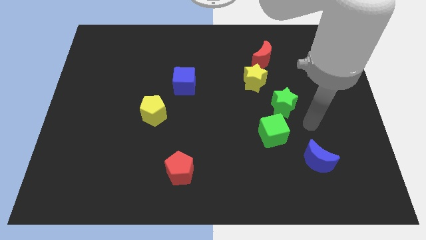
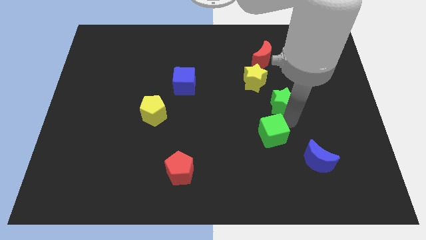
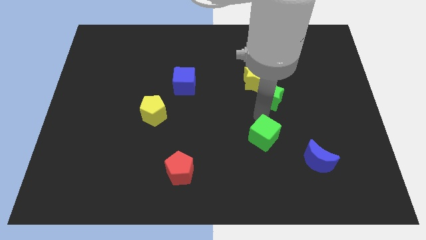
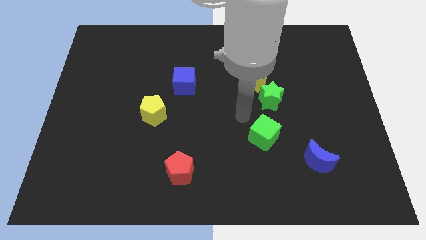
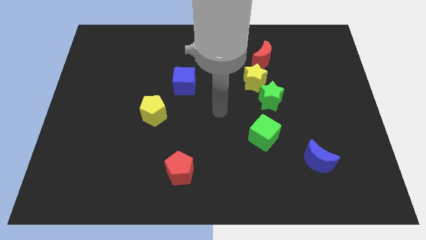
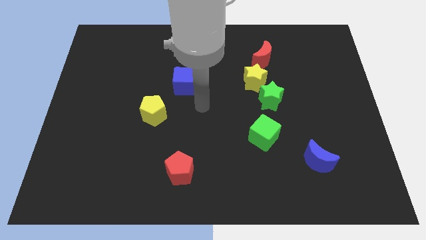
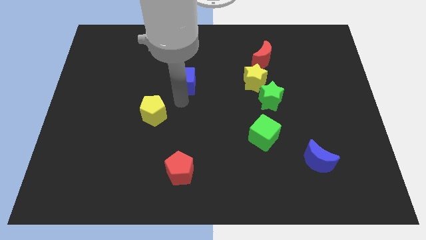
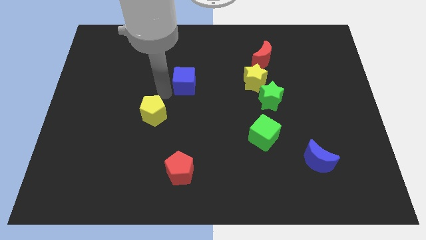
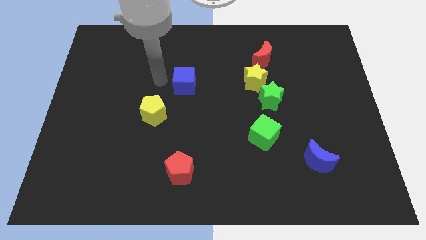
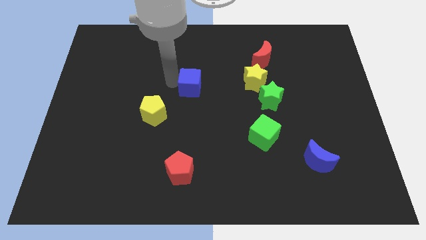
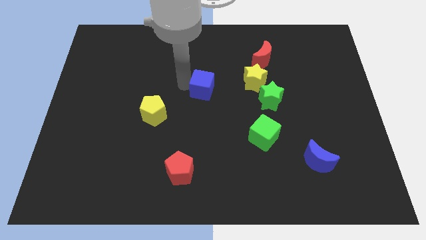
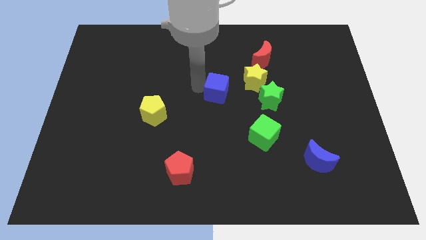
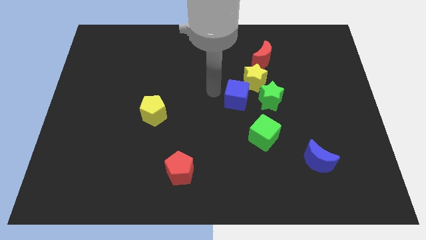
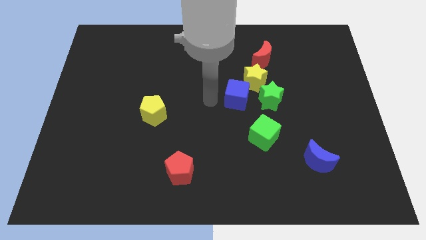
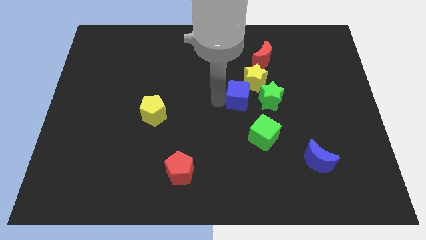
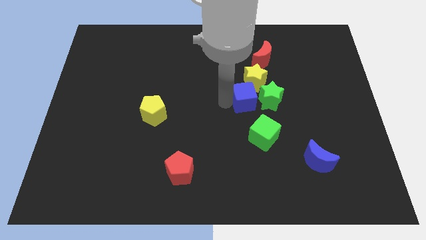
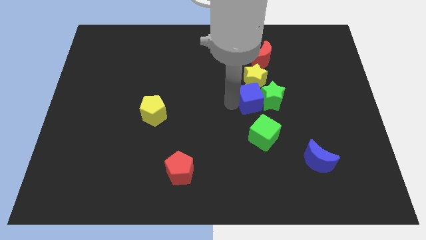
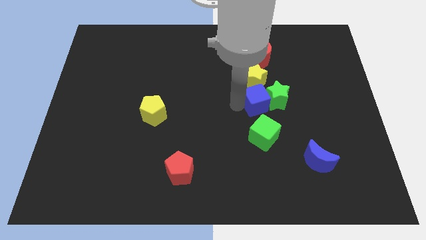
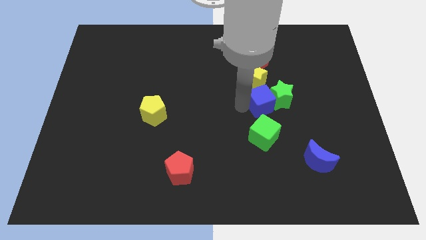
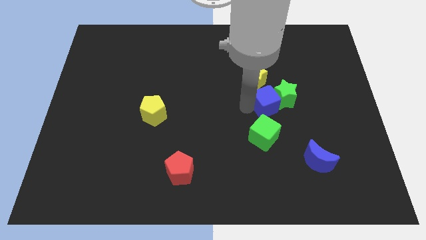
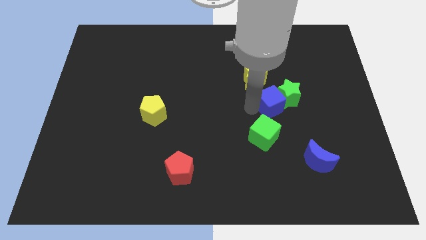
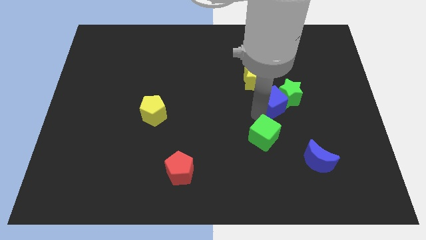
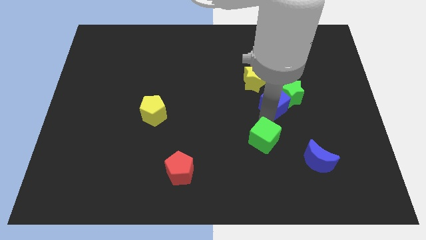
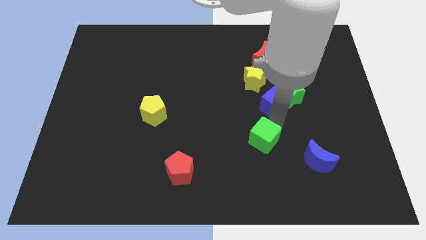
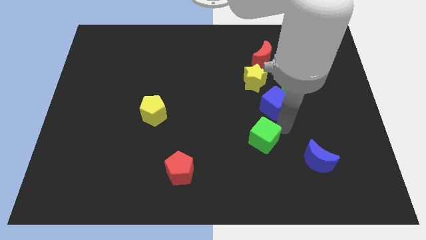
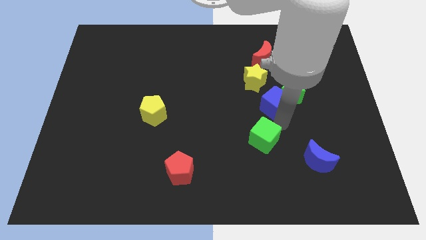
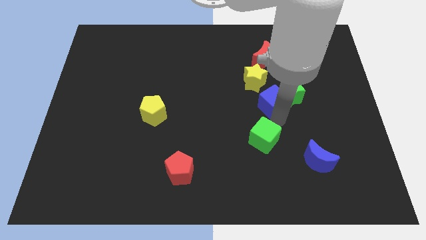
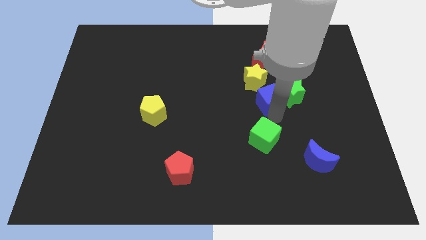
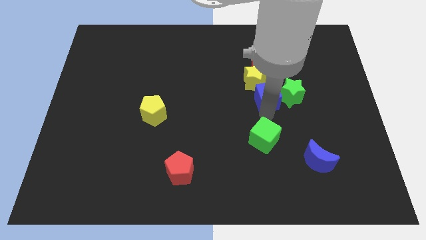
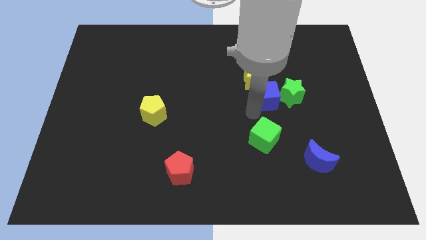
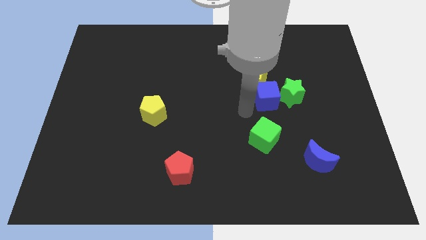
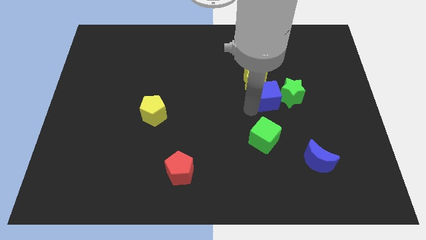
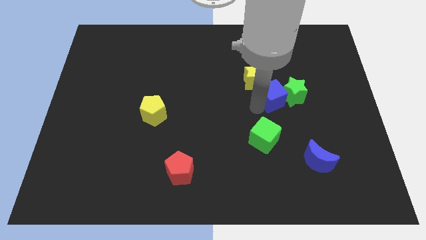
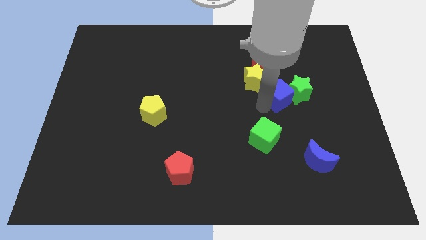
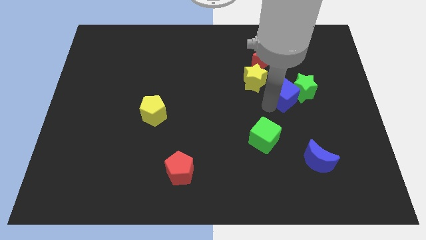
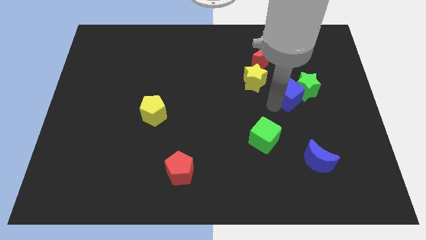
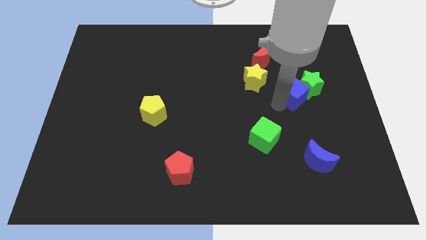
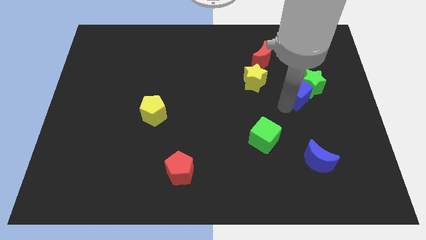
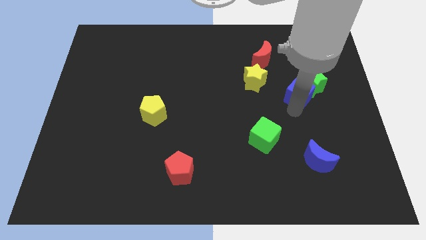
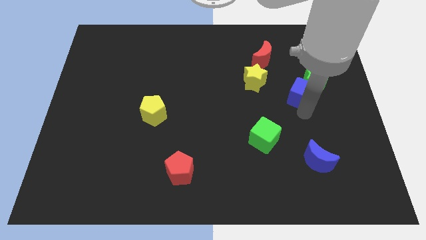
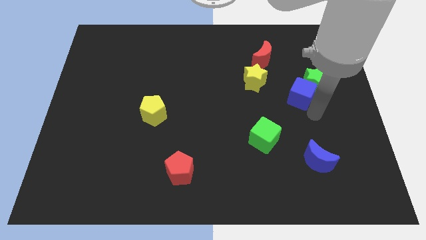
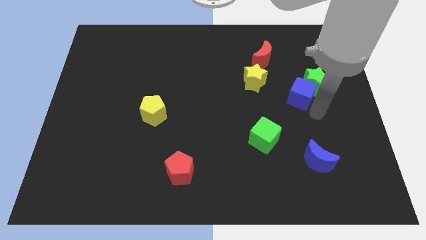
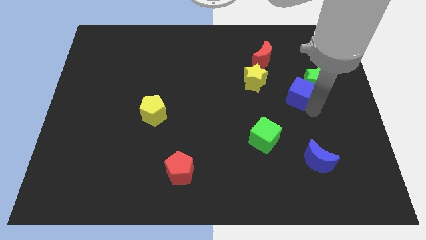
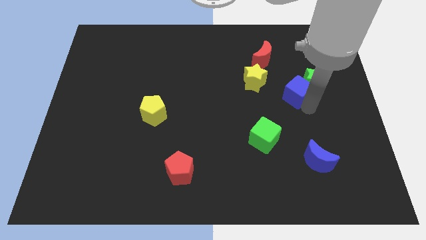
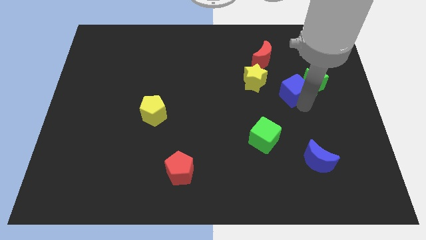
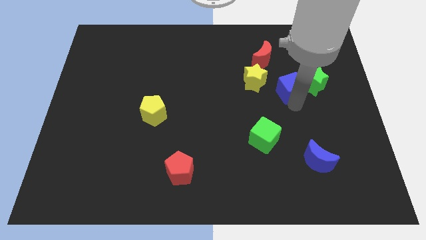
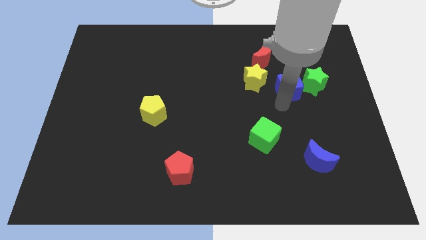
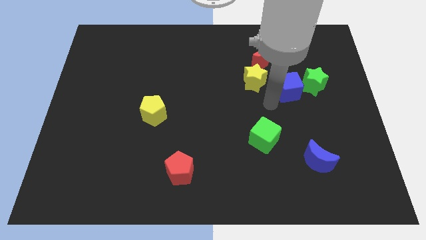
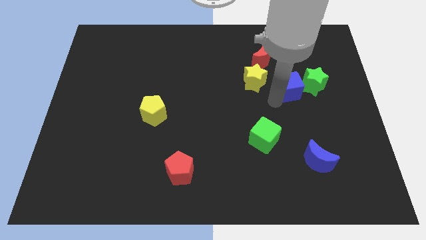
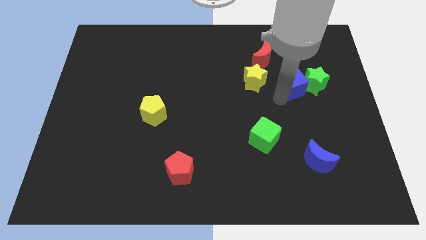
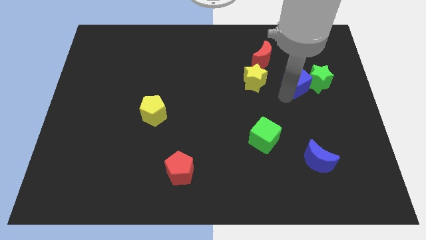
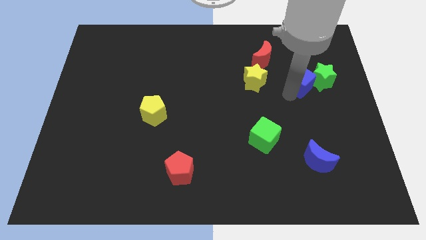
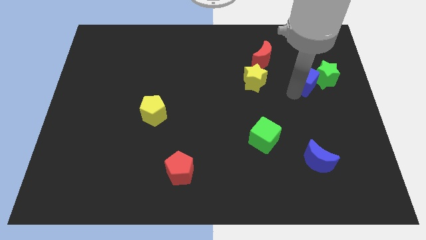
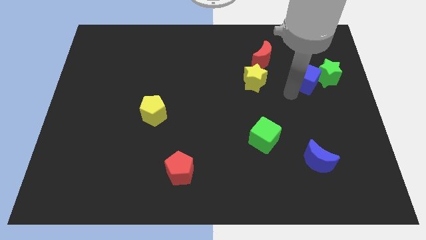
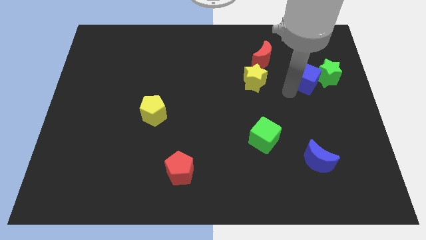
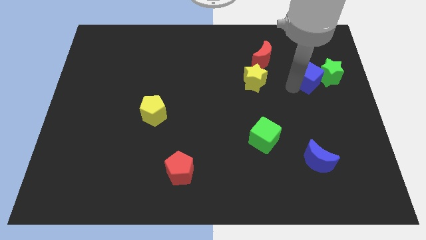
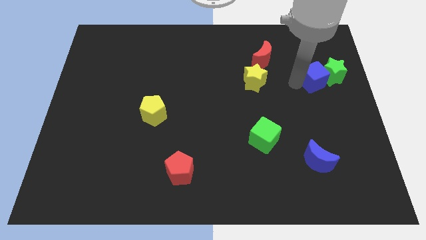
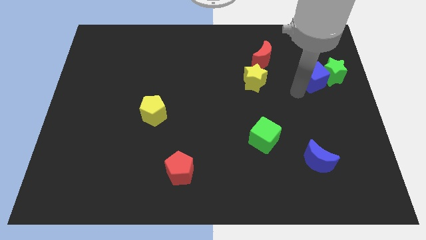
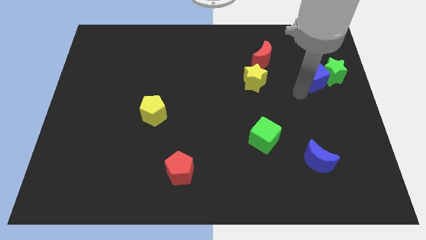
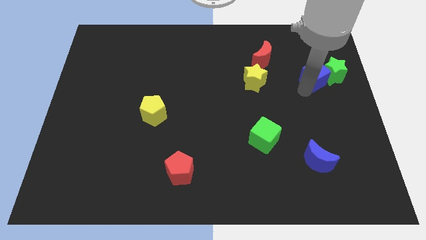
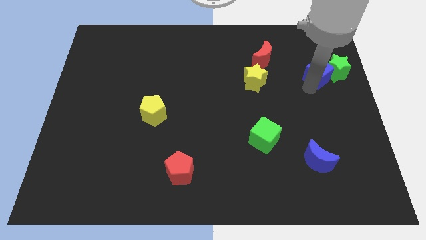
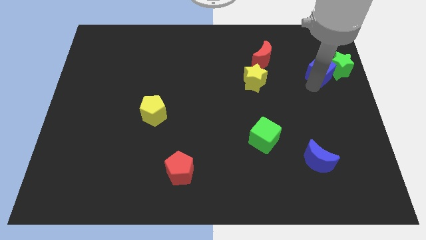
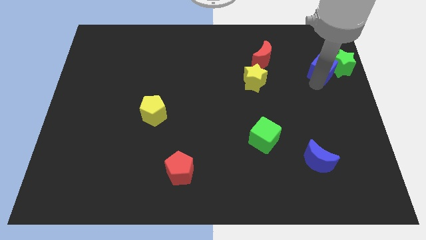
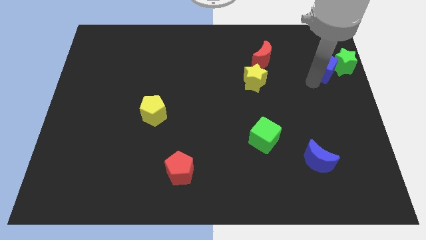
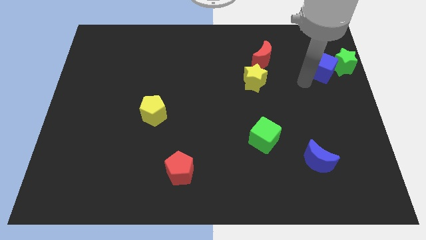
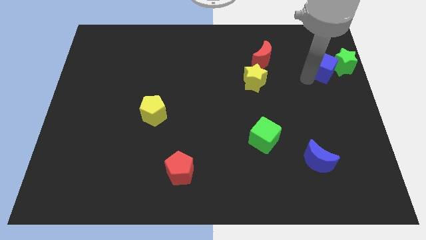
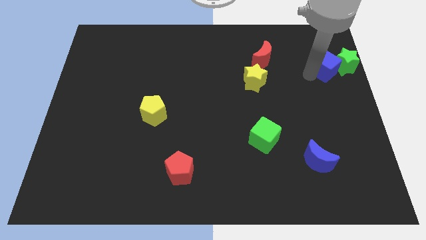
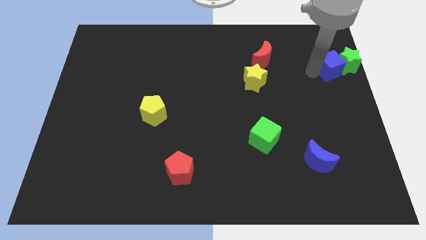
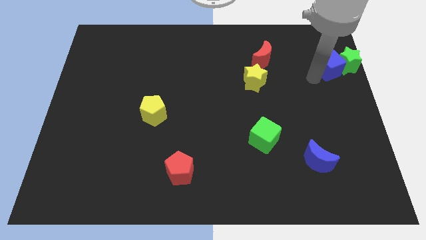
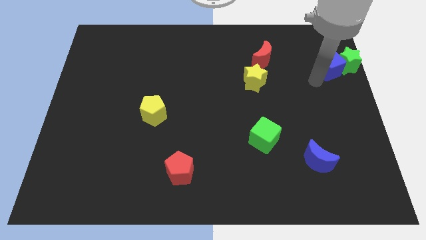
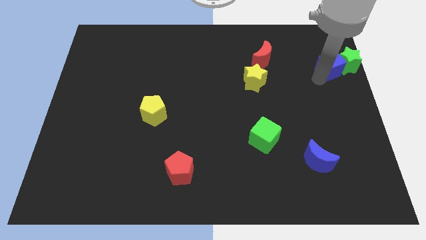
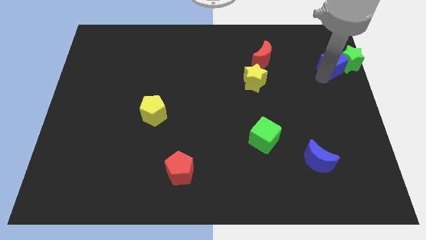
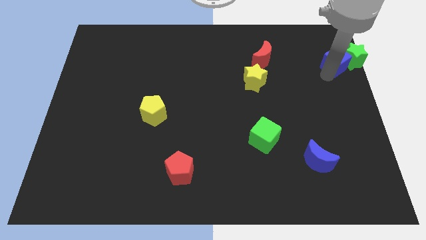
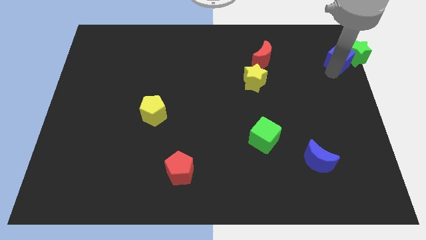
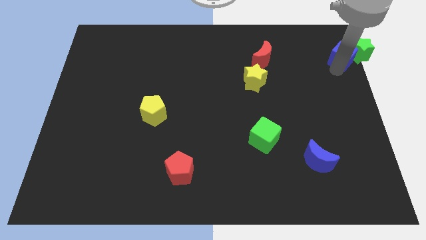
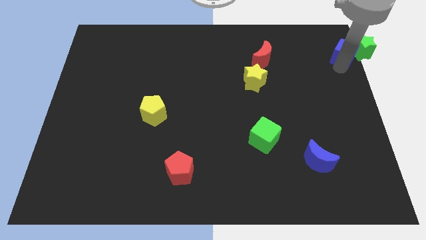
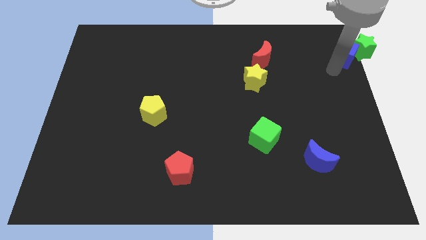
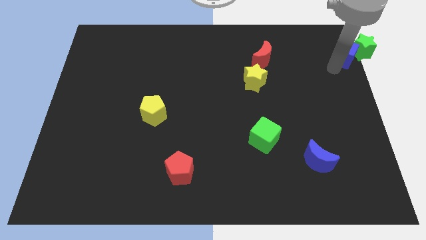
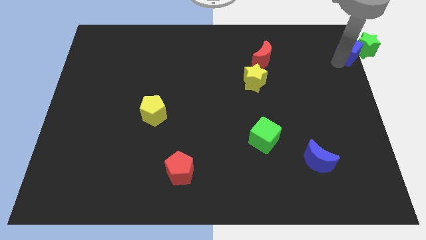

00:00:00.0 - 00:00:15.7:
move the blue cube to the top right of the board
